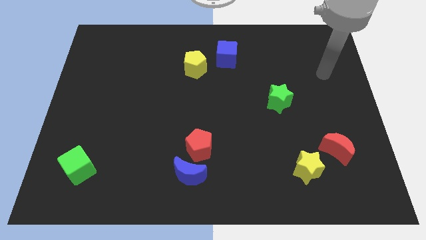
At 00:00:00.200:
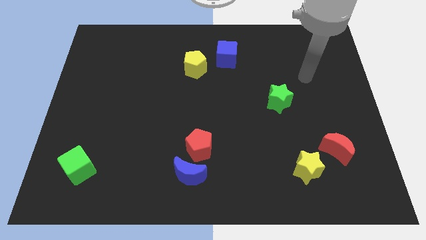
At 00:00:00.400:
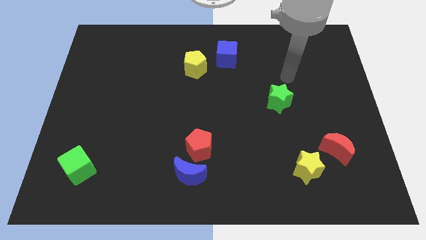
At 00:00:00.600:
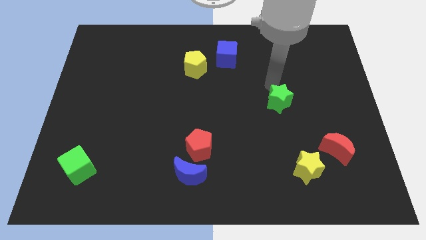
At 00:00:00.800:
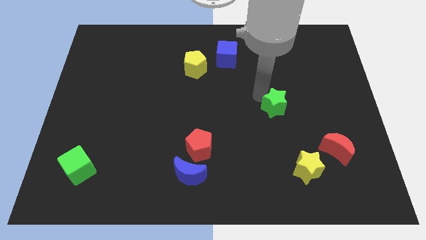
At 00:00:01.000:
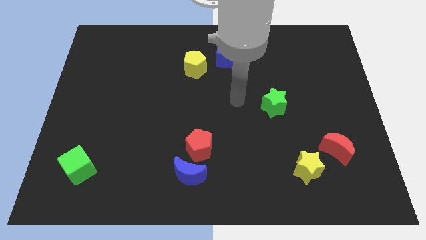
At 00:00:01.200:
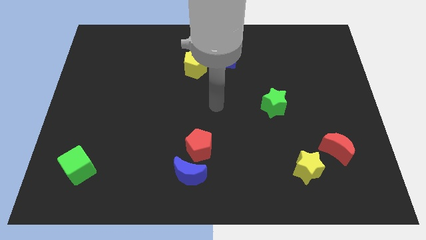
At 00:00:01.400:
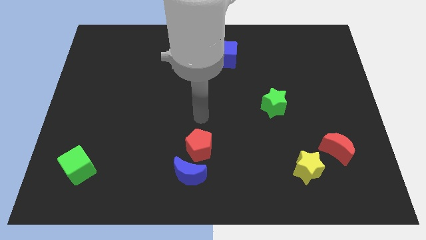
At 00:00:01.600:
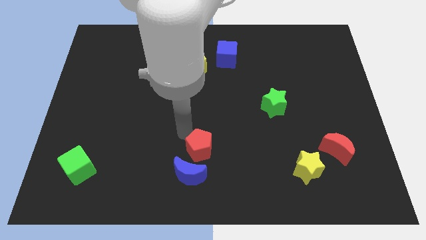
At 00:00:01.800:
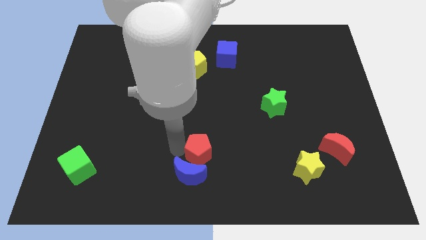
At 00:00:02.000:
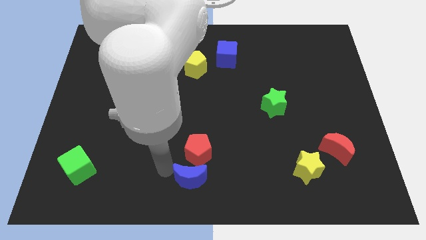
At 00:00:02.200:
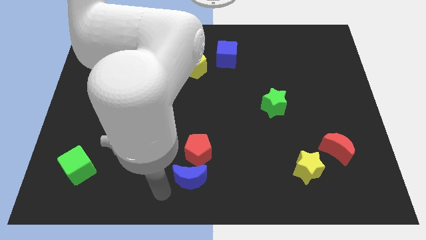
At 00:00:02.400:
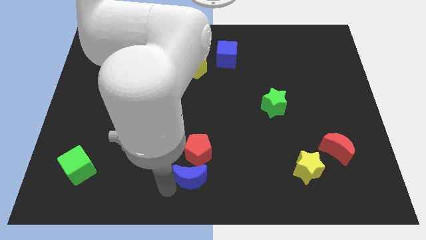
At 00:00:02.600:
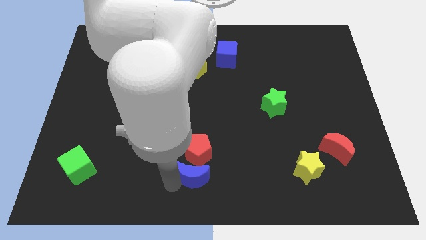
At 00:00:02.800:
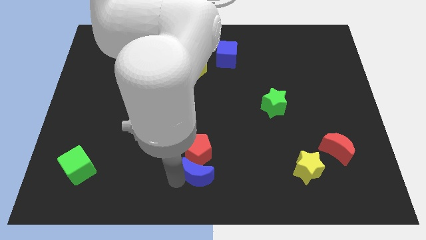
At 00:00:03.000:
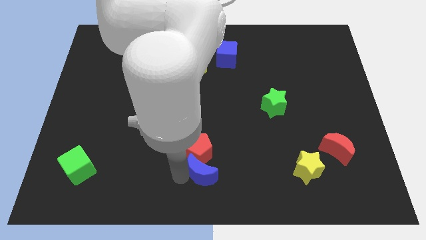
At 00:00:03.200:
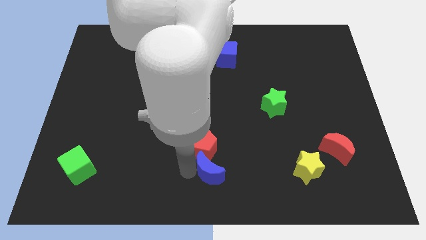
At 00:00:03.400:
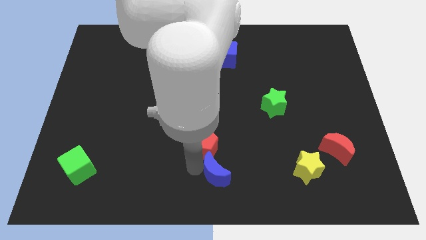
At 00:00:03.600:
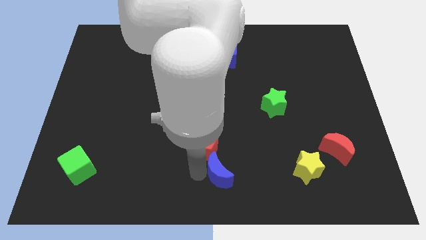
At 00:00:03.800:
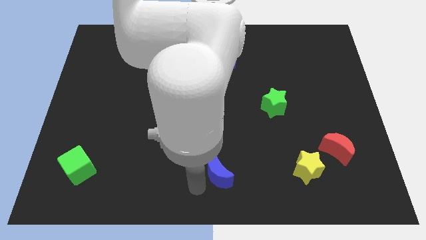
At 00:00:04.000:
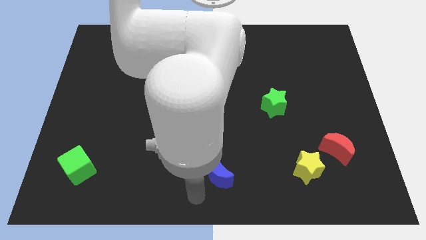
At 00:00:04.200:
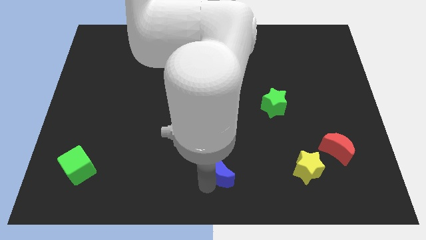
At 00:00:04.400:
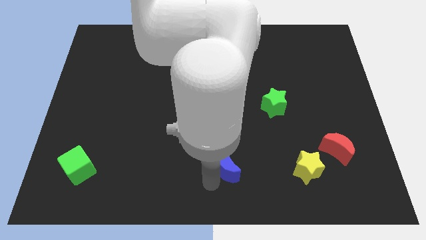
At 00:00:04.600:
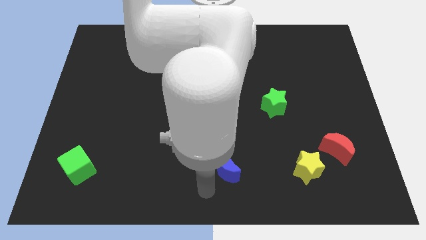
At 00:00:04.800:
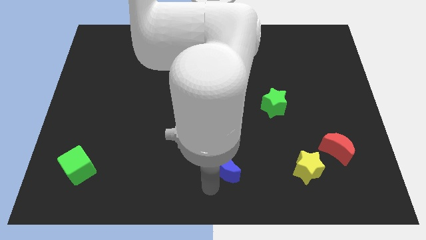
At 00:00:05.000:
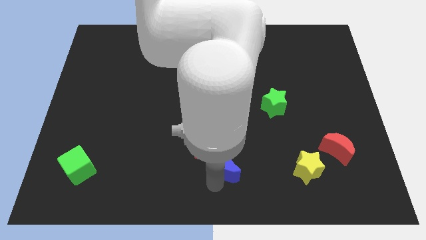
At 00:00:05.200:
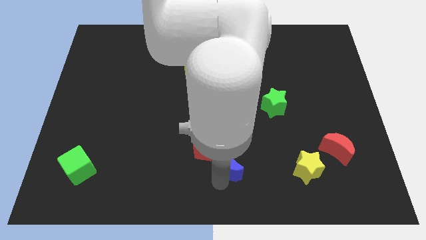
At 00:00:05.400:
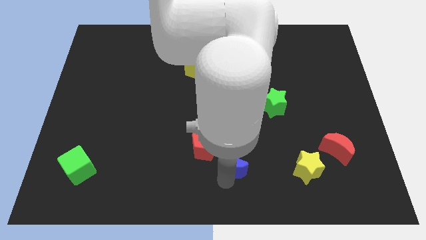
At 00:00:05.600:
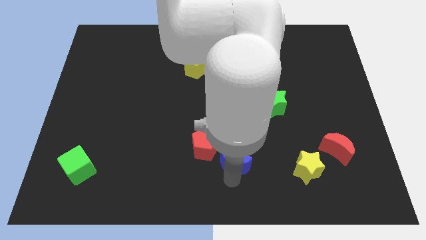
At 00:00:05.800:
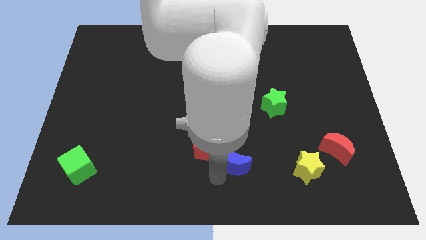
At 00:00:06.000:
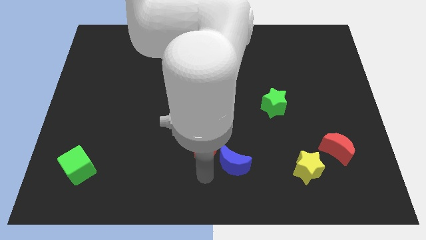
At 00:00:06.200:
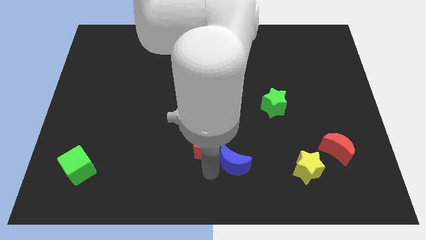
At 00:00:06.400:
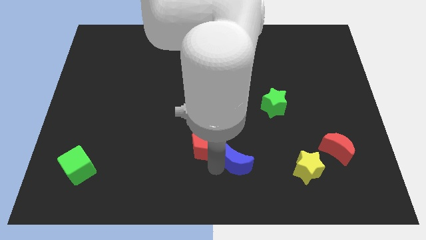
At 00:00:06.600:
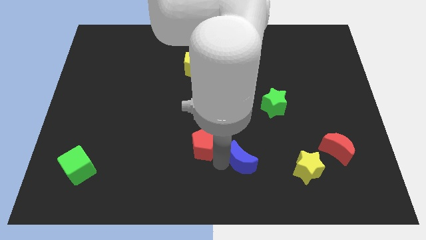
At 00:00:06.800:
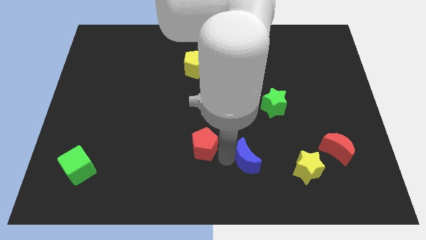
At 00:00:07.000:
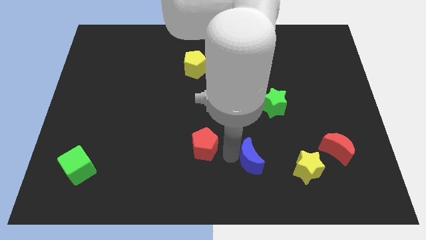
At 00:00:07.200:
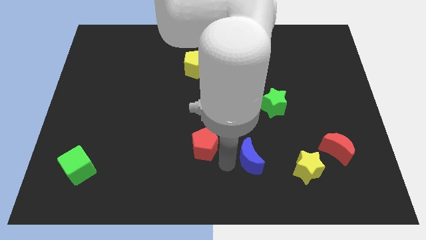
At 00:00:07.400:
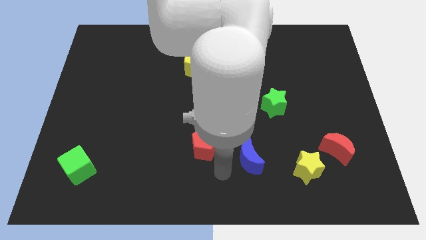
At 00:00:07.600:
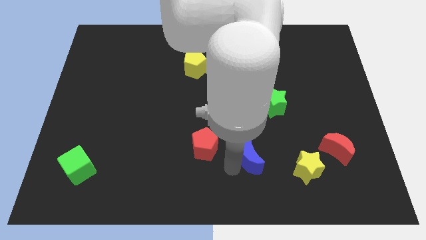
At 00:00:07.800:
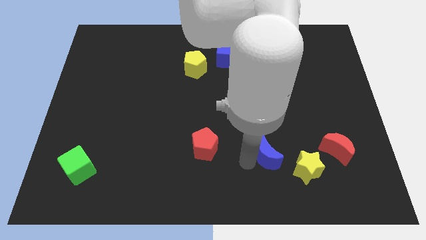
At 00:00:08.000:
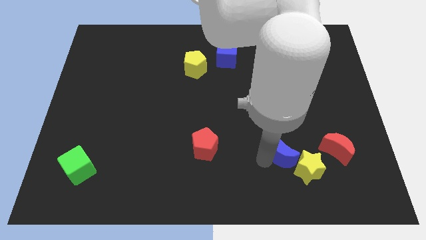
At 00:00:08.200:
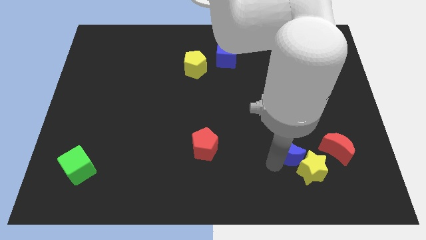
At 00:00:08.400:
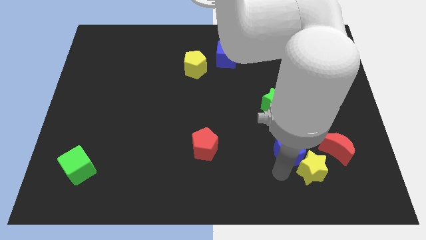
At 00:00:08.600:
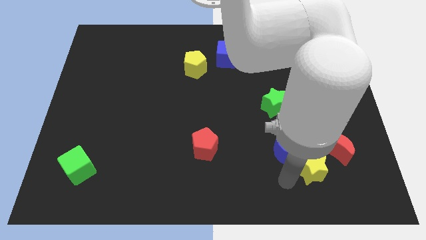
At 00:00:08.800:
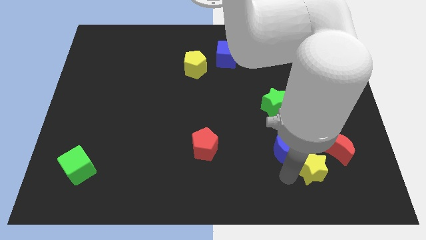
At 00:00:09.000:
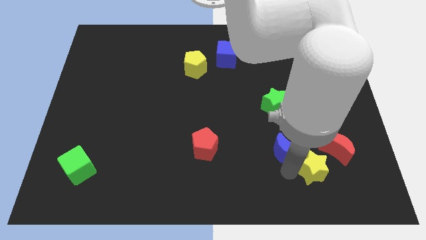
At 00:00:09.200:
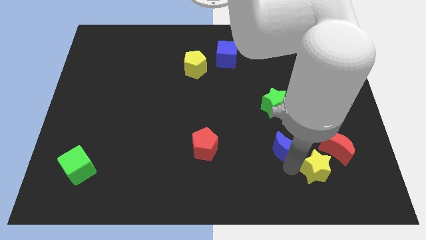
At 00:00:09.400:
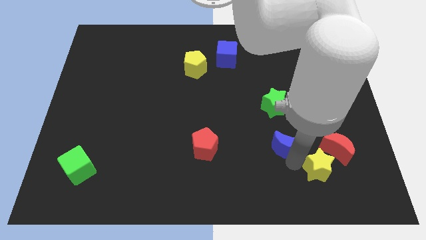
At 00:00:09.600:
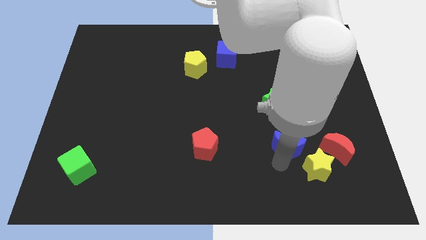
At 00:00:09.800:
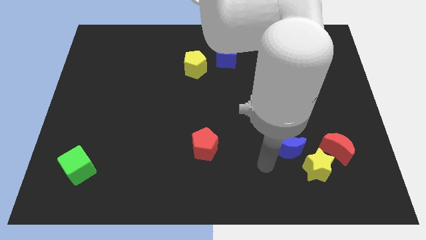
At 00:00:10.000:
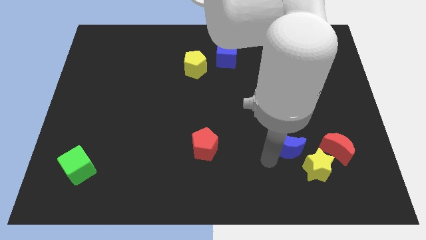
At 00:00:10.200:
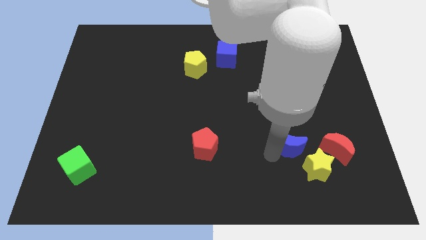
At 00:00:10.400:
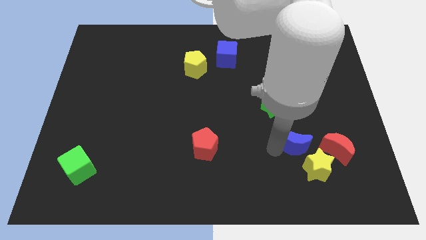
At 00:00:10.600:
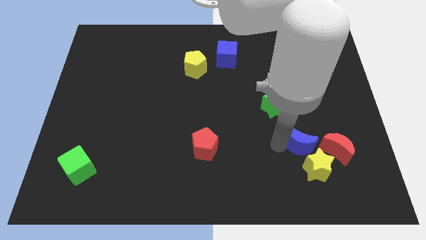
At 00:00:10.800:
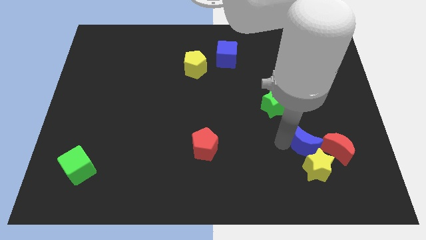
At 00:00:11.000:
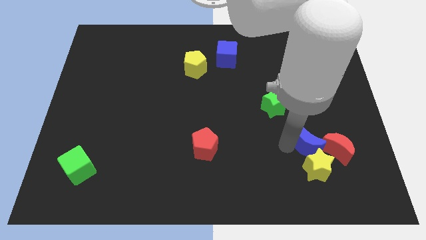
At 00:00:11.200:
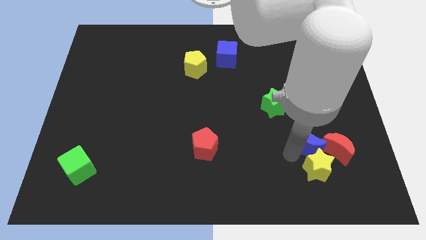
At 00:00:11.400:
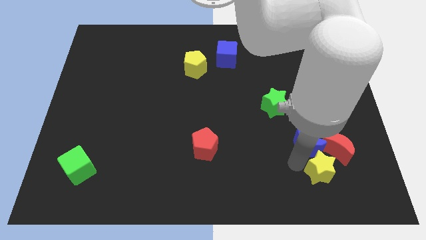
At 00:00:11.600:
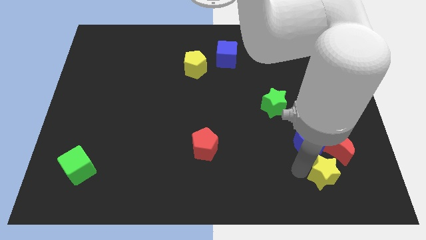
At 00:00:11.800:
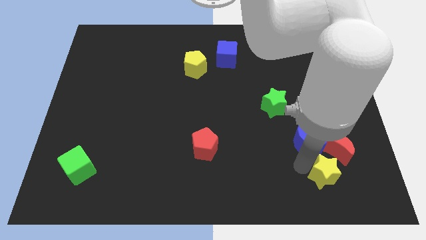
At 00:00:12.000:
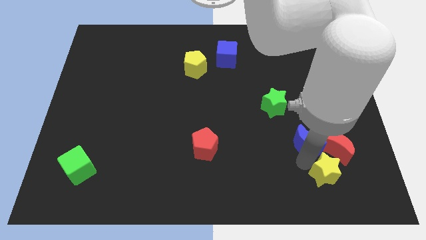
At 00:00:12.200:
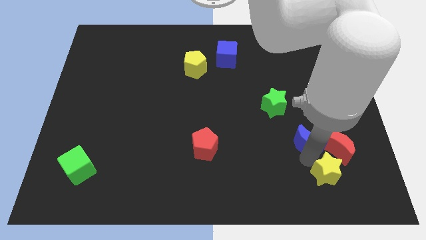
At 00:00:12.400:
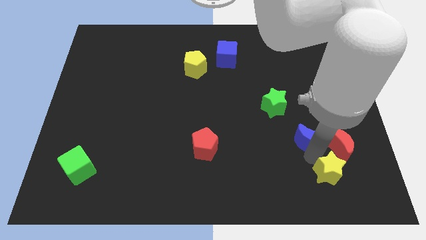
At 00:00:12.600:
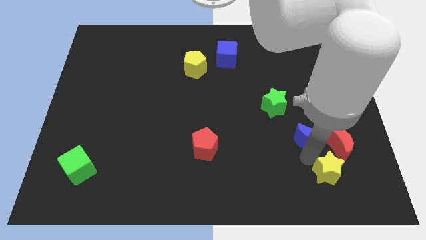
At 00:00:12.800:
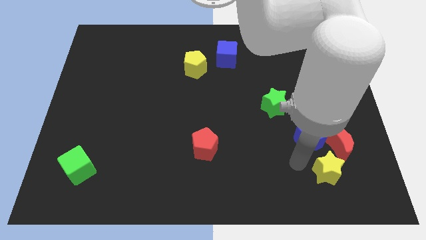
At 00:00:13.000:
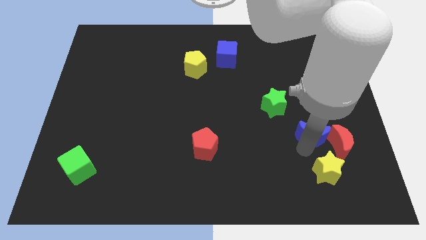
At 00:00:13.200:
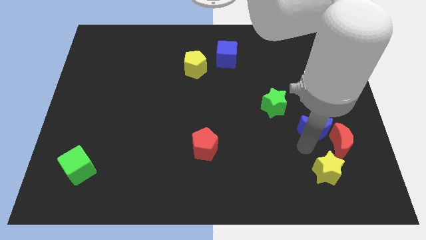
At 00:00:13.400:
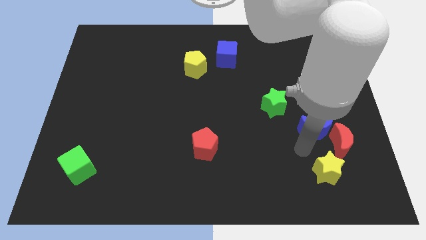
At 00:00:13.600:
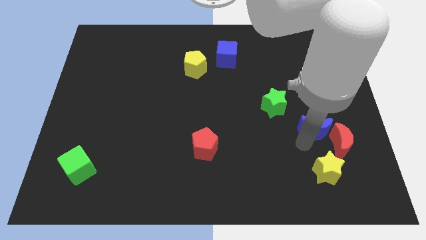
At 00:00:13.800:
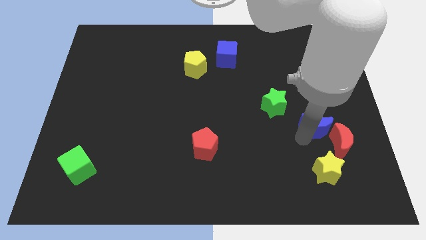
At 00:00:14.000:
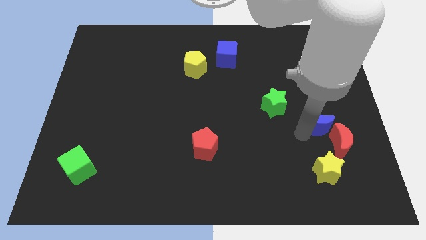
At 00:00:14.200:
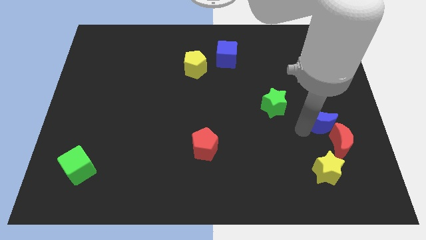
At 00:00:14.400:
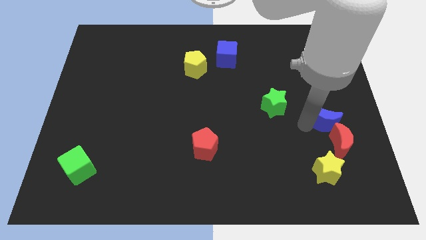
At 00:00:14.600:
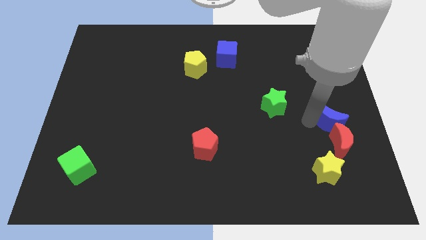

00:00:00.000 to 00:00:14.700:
put the blue moon to the right side

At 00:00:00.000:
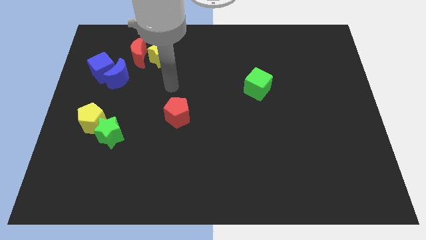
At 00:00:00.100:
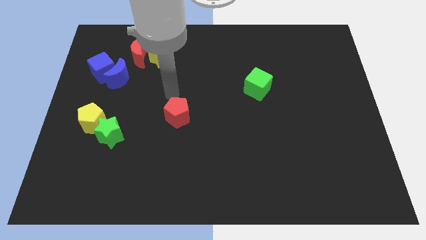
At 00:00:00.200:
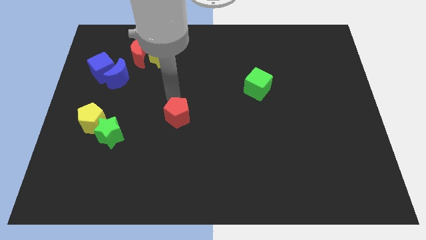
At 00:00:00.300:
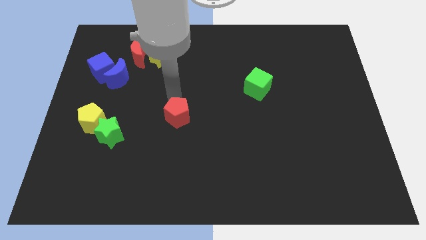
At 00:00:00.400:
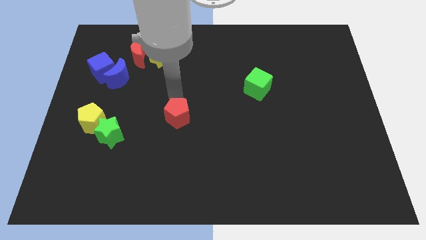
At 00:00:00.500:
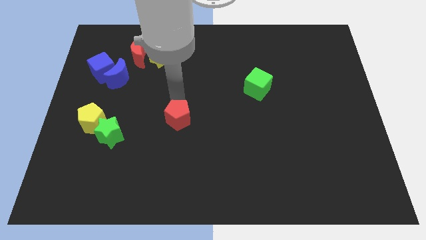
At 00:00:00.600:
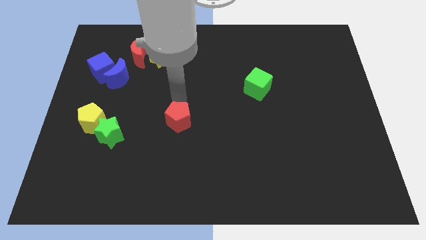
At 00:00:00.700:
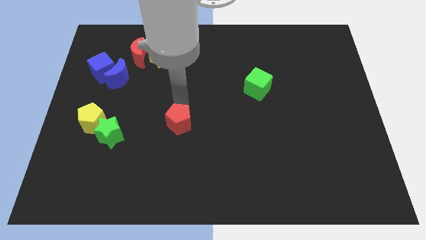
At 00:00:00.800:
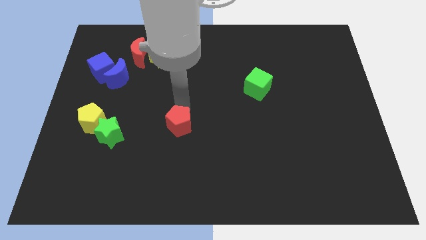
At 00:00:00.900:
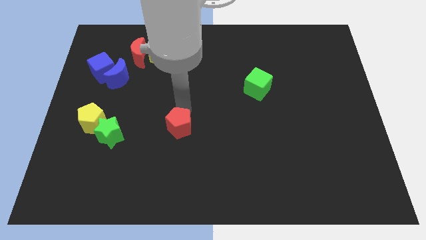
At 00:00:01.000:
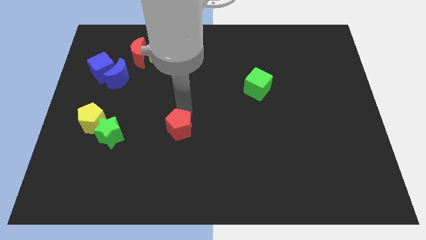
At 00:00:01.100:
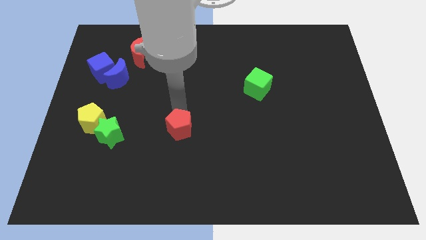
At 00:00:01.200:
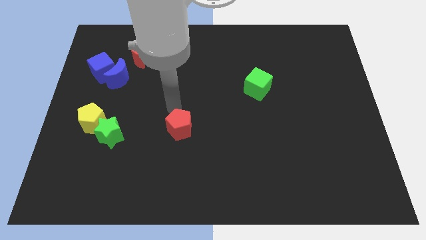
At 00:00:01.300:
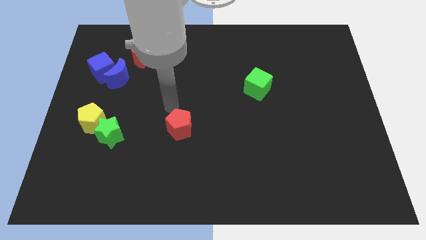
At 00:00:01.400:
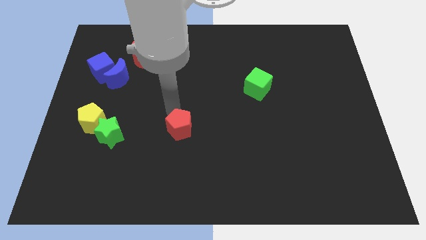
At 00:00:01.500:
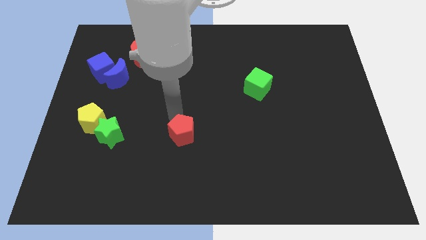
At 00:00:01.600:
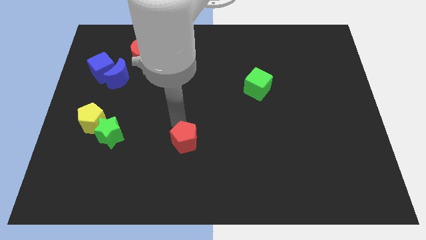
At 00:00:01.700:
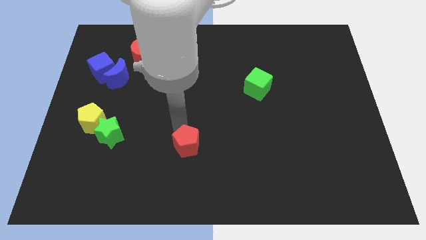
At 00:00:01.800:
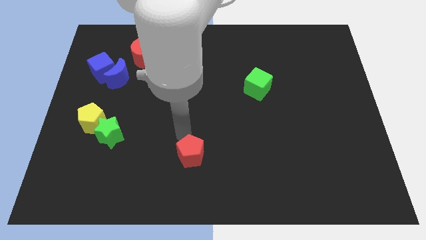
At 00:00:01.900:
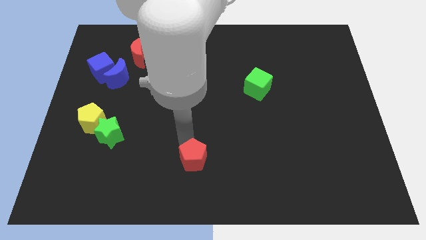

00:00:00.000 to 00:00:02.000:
move the red pentagon to the bottom
